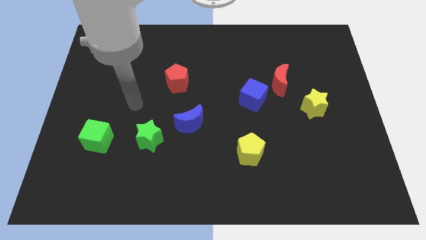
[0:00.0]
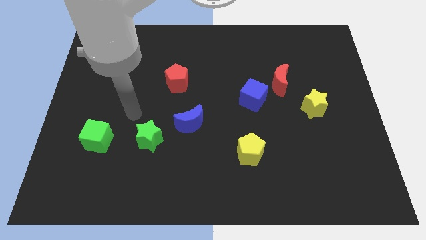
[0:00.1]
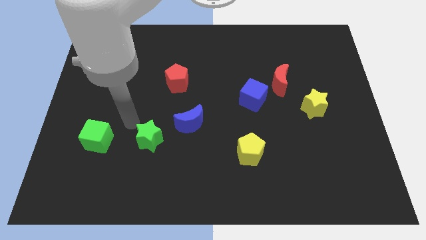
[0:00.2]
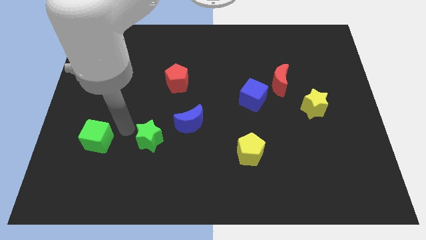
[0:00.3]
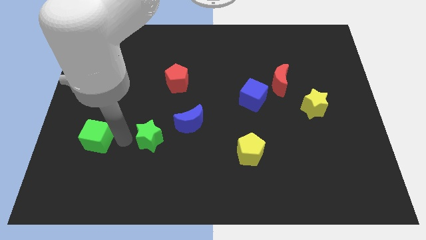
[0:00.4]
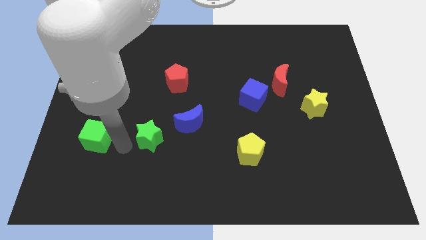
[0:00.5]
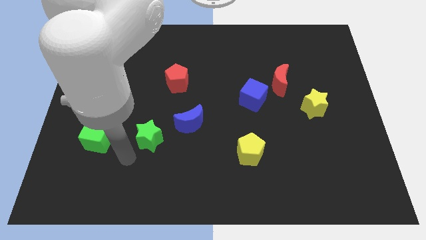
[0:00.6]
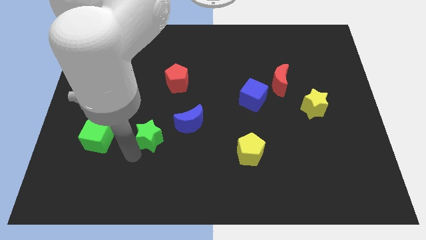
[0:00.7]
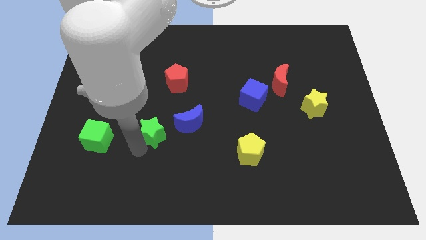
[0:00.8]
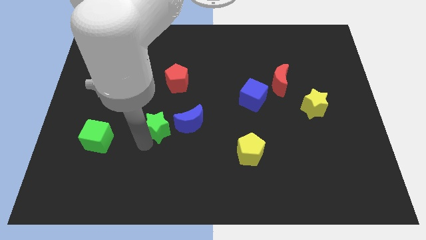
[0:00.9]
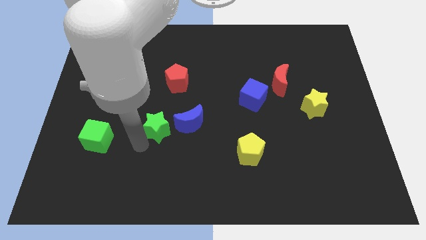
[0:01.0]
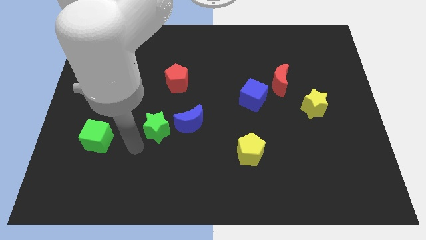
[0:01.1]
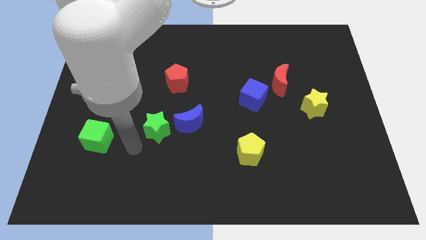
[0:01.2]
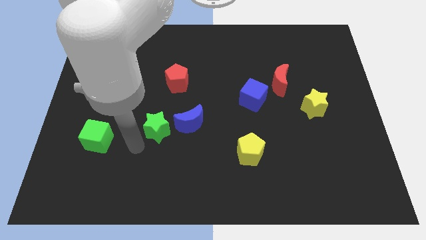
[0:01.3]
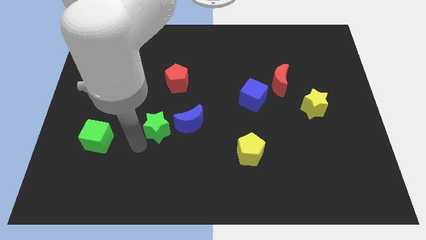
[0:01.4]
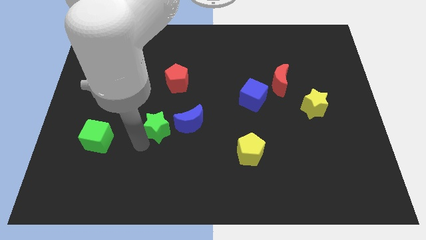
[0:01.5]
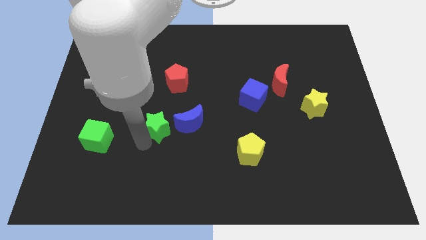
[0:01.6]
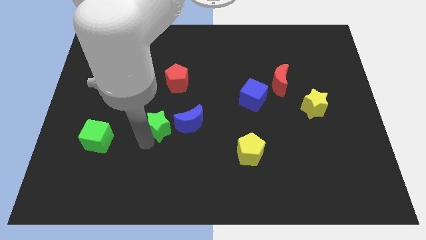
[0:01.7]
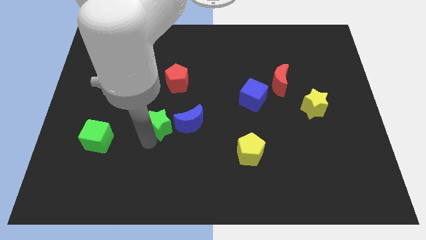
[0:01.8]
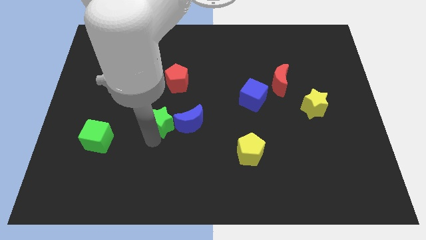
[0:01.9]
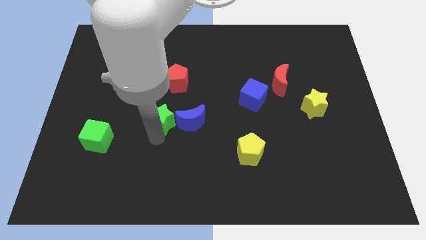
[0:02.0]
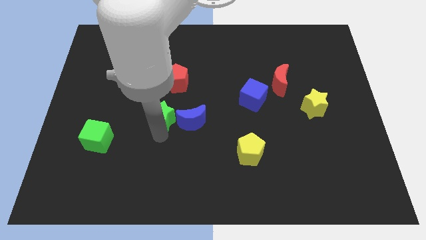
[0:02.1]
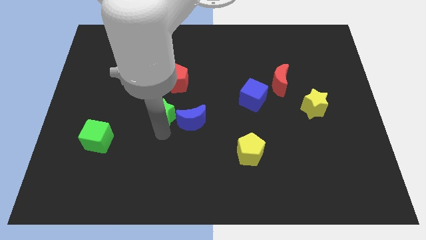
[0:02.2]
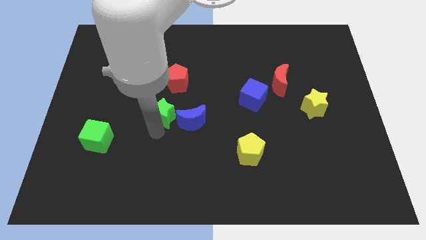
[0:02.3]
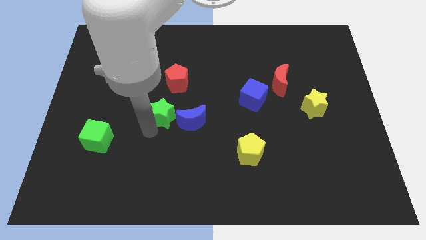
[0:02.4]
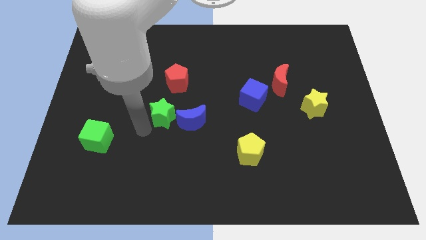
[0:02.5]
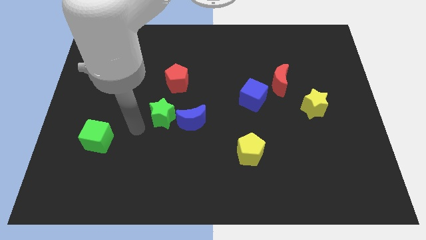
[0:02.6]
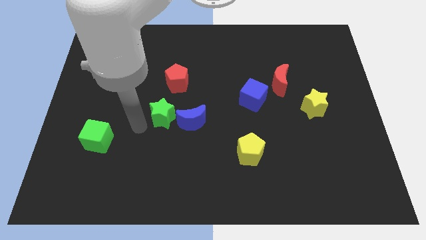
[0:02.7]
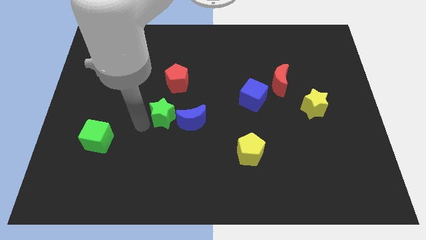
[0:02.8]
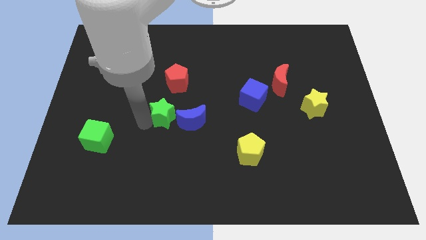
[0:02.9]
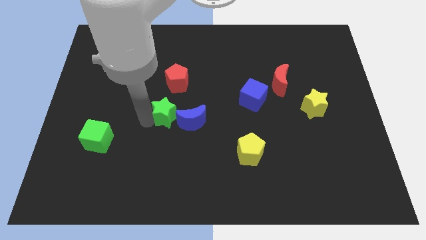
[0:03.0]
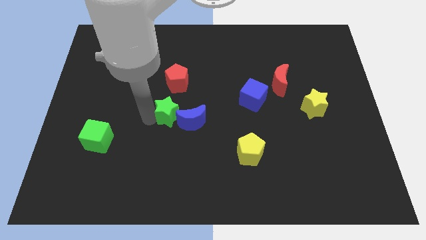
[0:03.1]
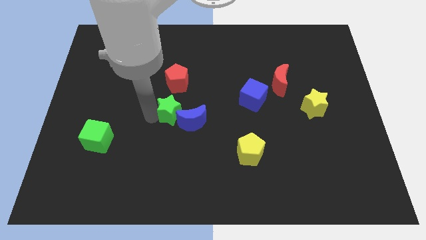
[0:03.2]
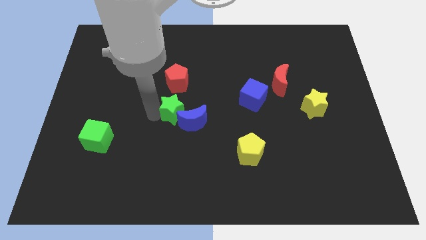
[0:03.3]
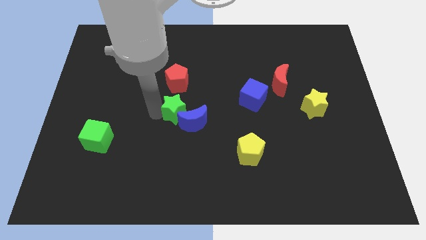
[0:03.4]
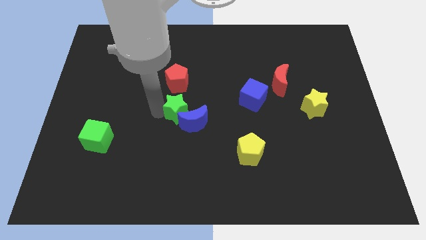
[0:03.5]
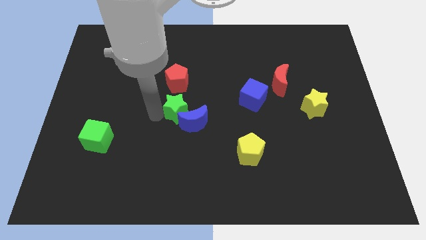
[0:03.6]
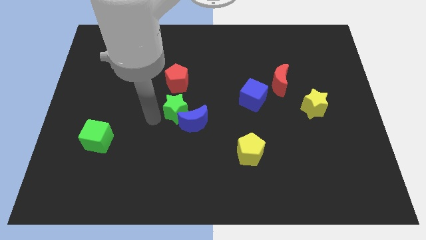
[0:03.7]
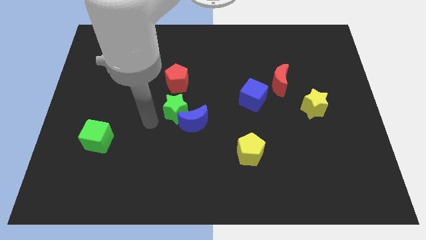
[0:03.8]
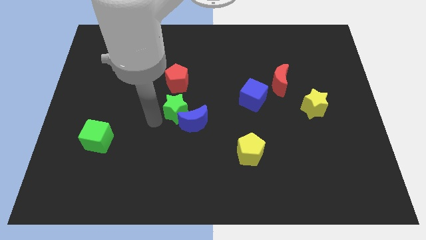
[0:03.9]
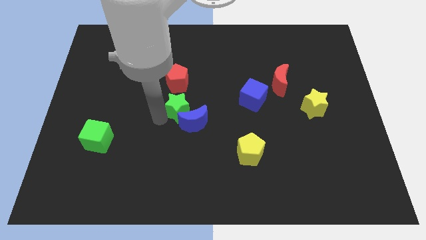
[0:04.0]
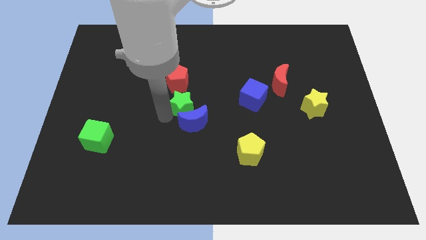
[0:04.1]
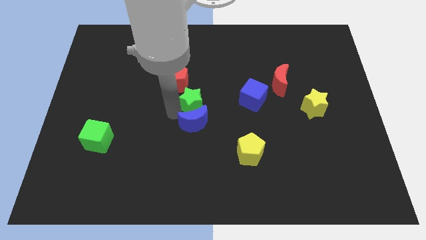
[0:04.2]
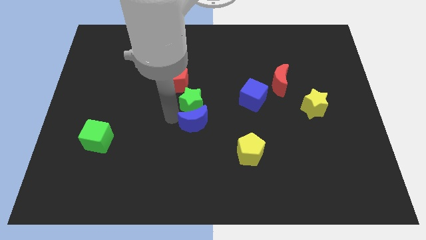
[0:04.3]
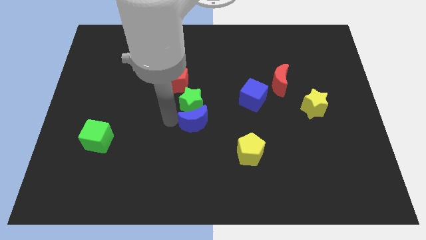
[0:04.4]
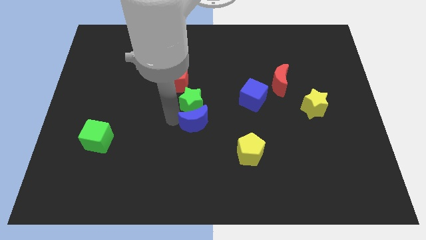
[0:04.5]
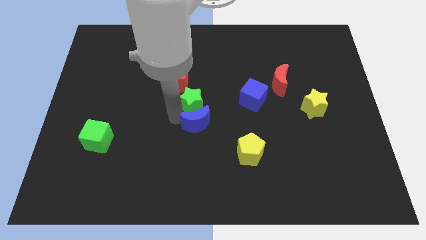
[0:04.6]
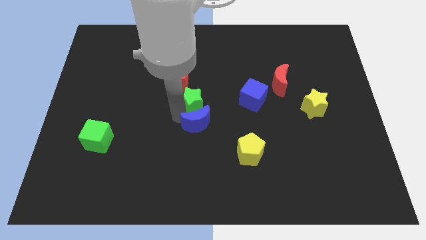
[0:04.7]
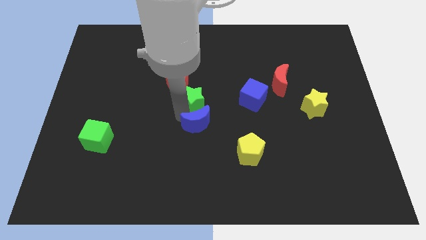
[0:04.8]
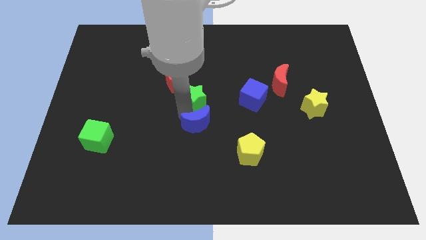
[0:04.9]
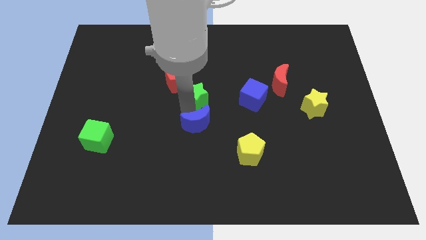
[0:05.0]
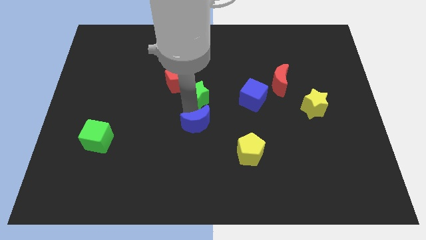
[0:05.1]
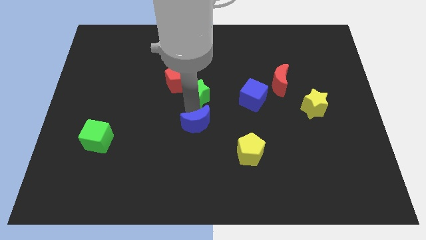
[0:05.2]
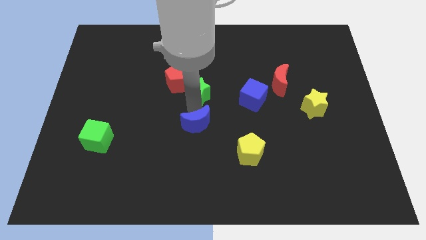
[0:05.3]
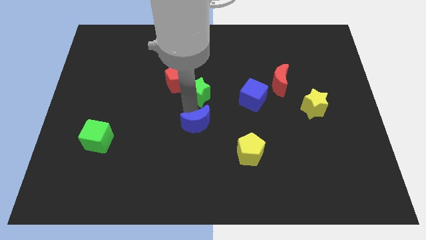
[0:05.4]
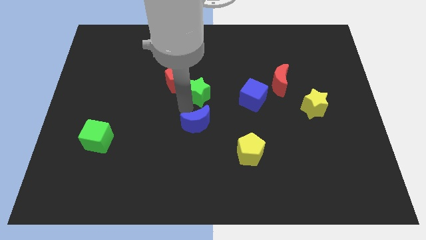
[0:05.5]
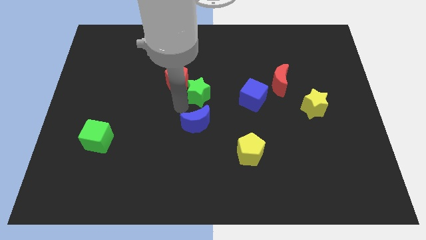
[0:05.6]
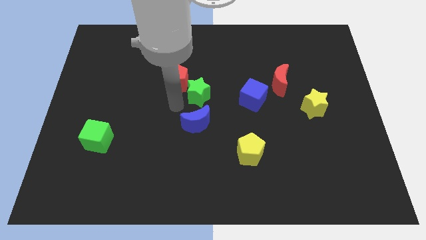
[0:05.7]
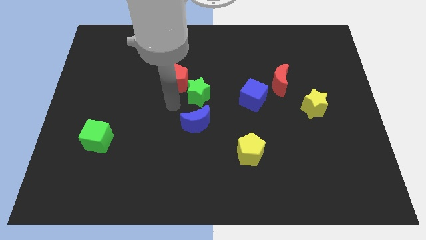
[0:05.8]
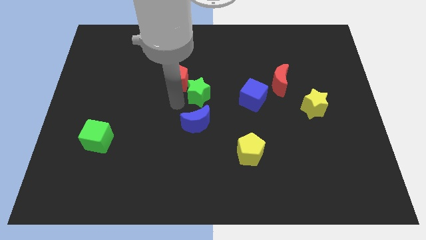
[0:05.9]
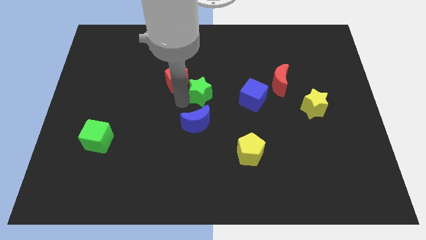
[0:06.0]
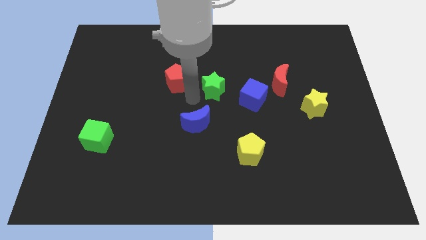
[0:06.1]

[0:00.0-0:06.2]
push the green star upwards and right diagonally

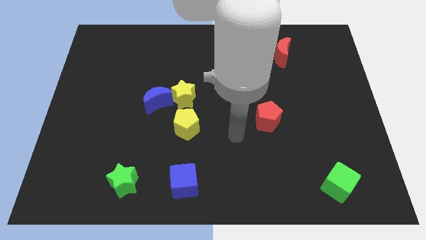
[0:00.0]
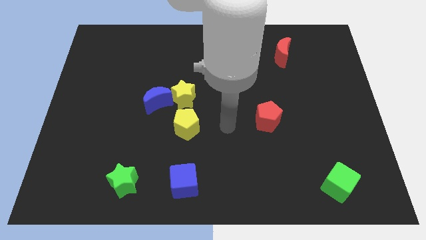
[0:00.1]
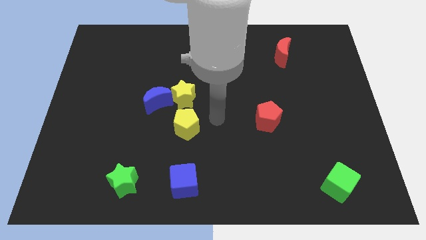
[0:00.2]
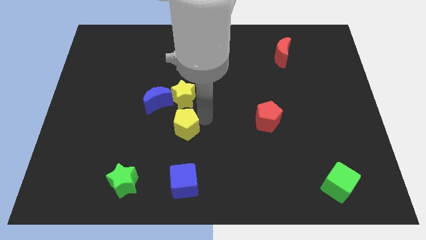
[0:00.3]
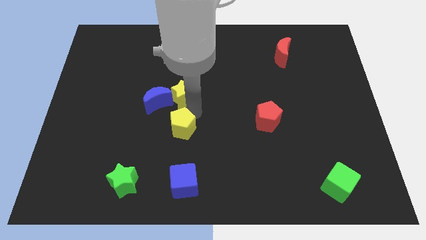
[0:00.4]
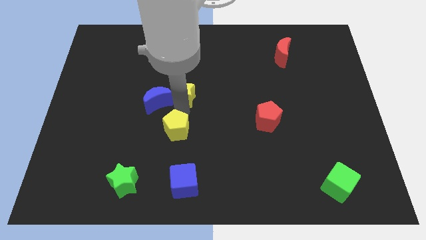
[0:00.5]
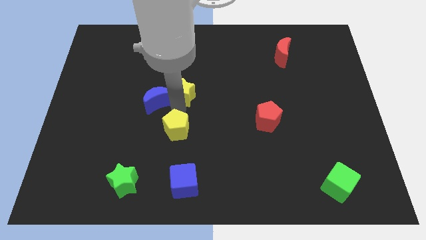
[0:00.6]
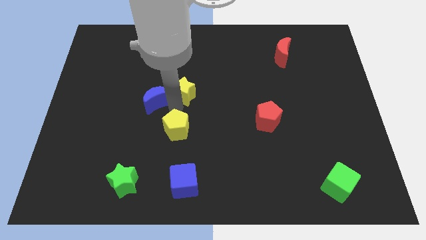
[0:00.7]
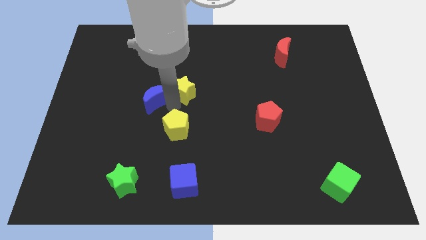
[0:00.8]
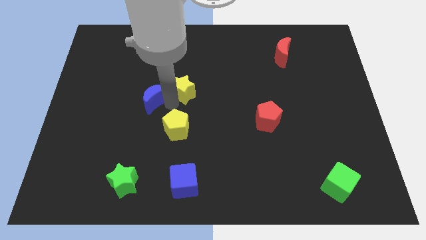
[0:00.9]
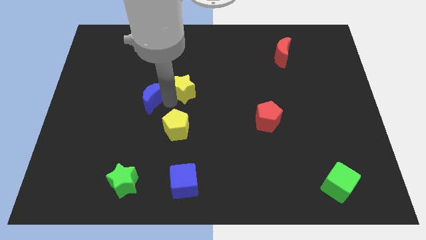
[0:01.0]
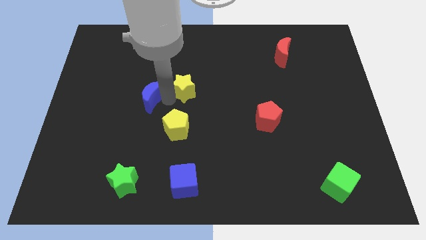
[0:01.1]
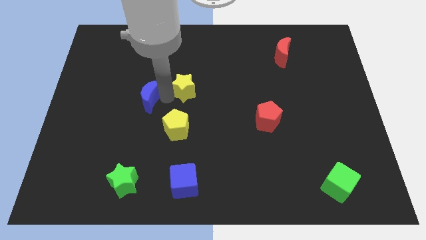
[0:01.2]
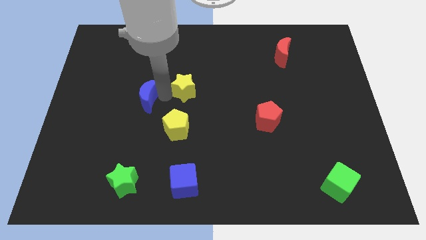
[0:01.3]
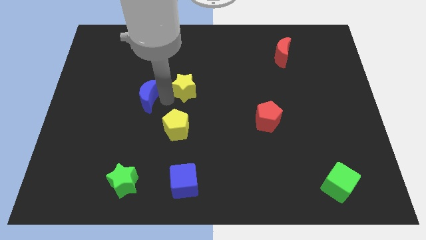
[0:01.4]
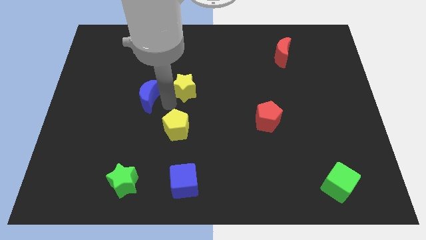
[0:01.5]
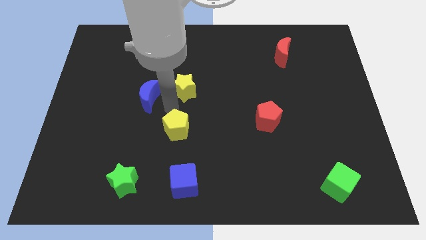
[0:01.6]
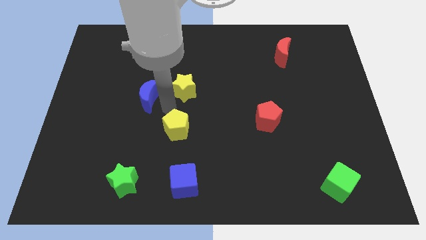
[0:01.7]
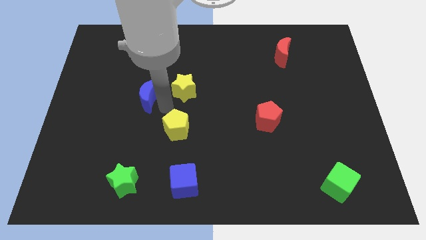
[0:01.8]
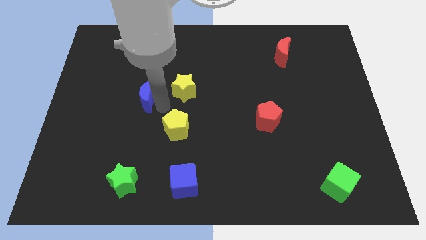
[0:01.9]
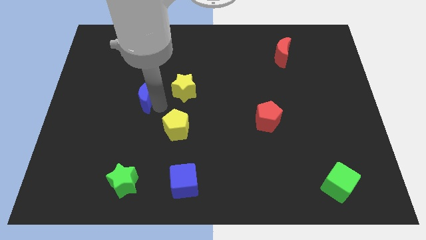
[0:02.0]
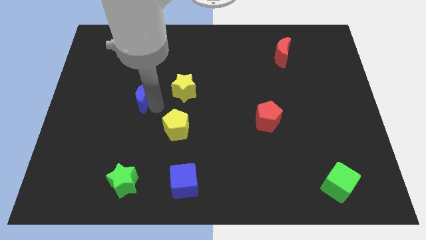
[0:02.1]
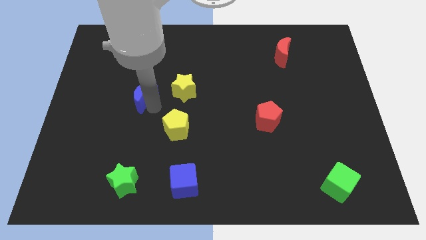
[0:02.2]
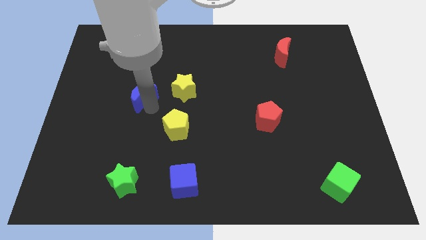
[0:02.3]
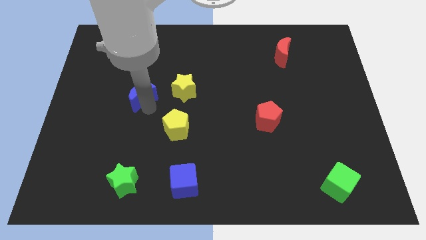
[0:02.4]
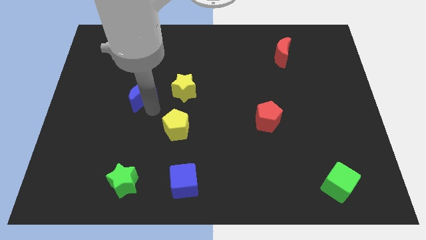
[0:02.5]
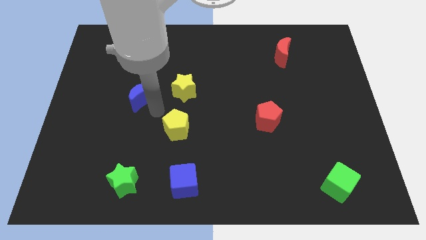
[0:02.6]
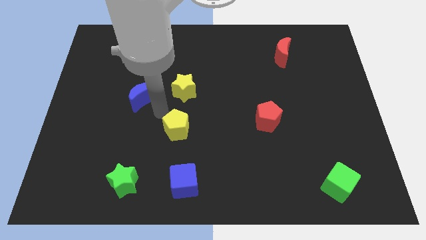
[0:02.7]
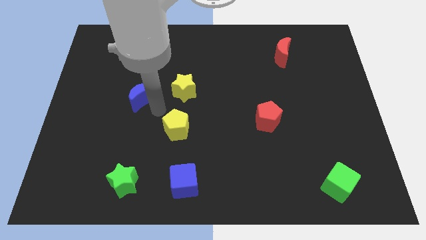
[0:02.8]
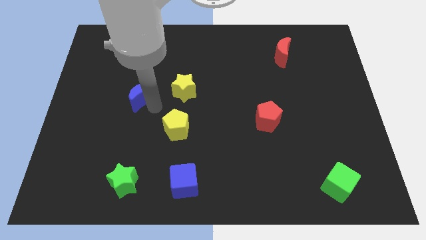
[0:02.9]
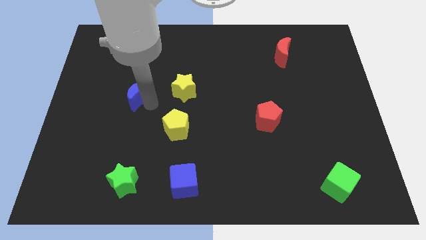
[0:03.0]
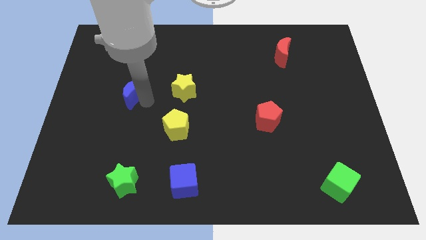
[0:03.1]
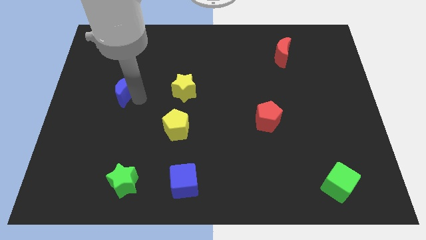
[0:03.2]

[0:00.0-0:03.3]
slide the blue moon a little upwards and then to the left
